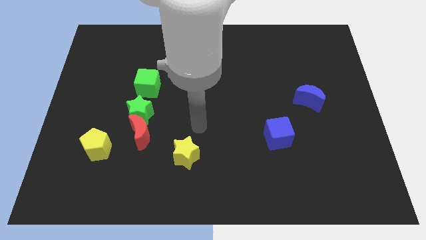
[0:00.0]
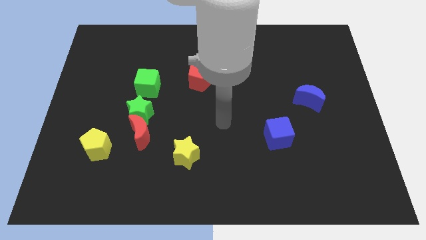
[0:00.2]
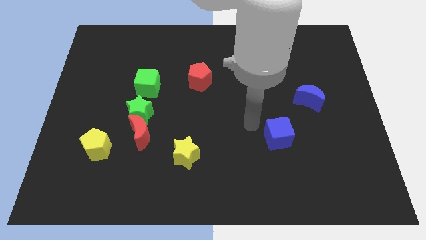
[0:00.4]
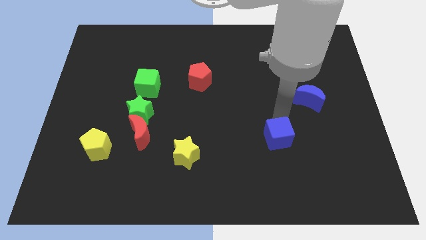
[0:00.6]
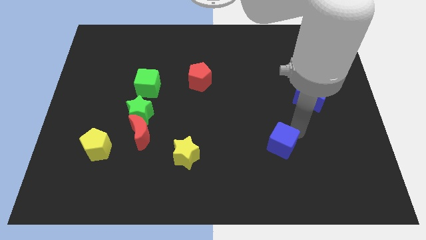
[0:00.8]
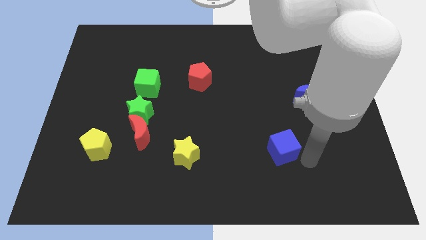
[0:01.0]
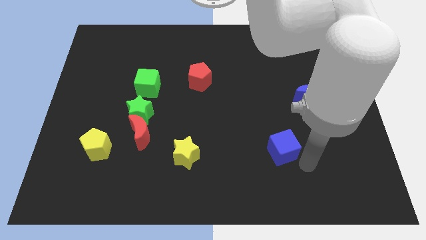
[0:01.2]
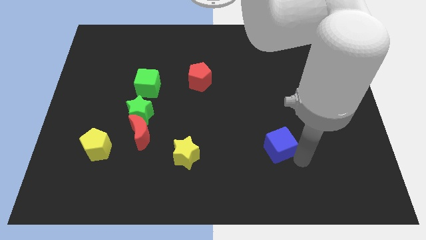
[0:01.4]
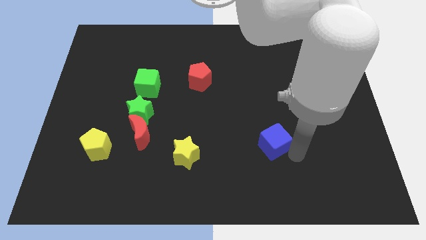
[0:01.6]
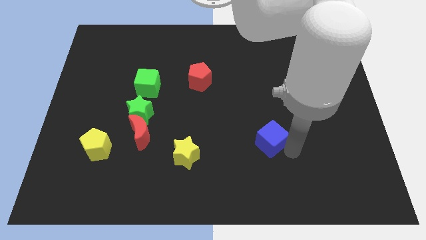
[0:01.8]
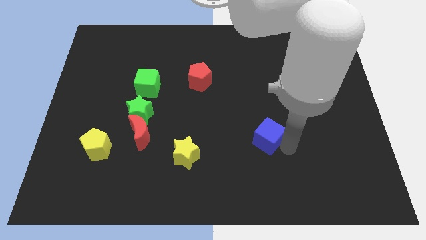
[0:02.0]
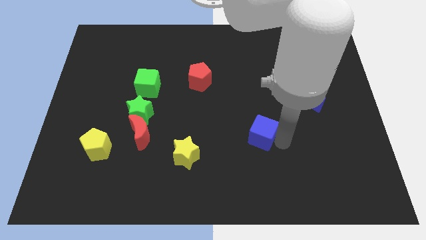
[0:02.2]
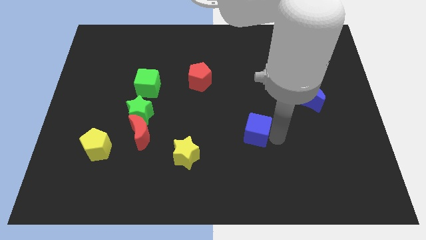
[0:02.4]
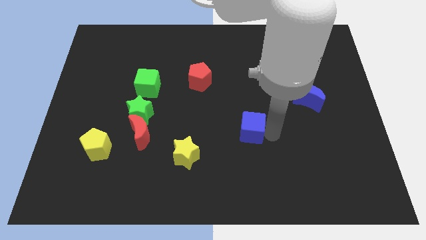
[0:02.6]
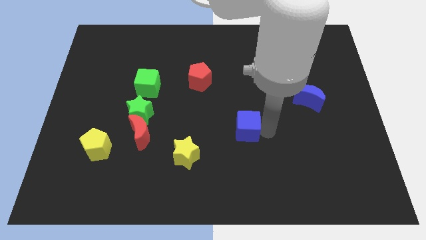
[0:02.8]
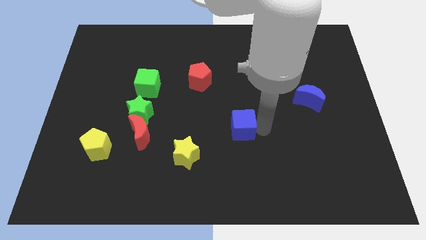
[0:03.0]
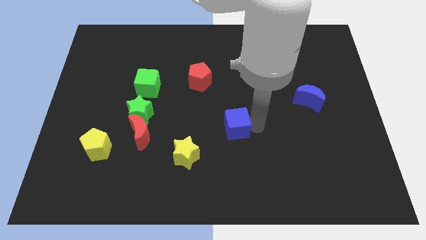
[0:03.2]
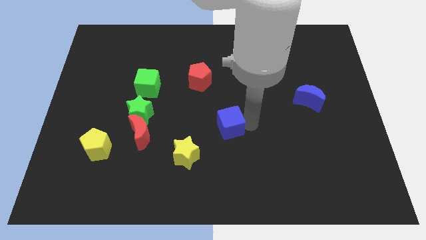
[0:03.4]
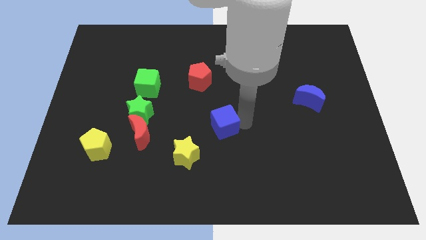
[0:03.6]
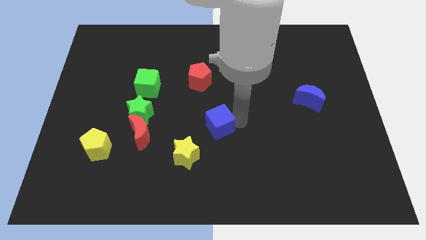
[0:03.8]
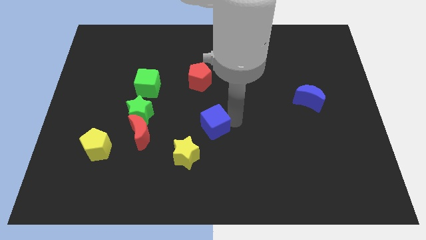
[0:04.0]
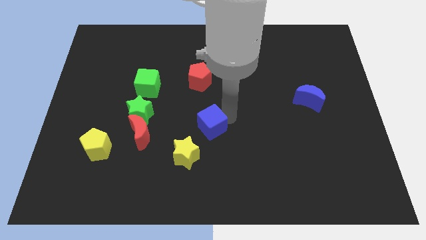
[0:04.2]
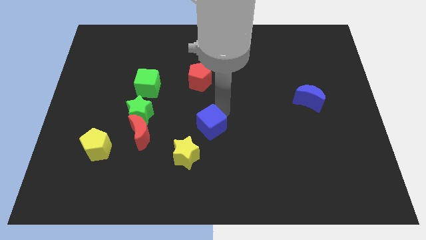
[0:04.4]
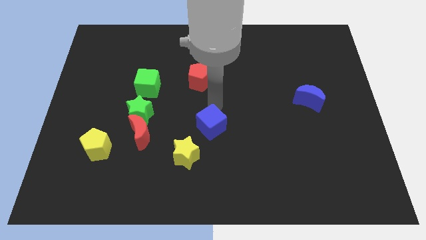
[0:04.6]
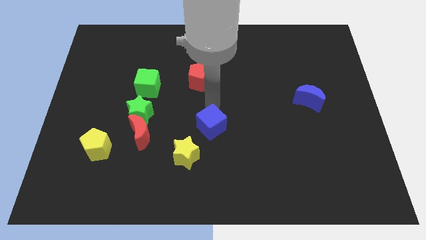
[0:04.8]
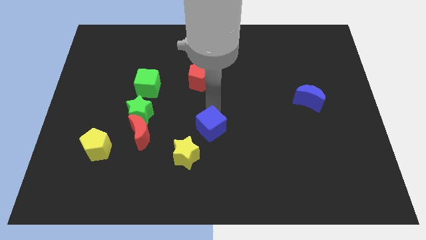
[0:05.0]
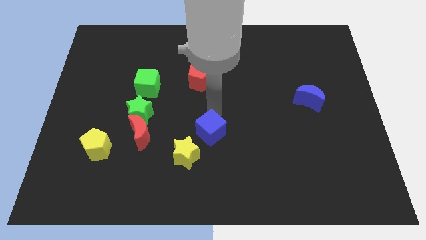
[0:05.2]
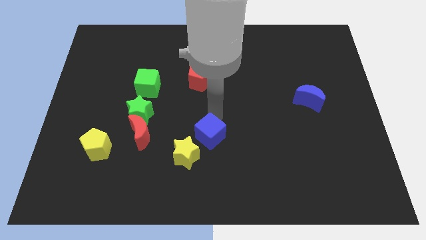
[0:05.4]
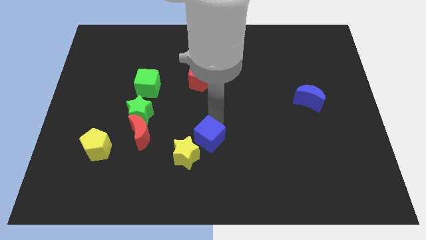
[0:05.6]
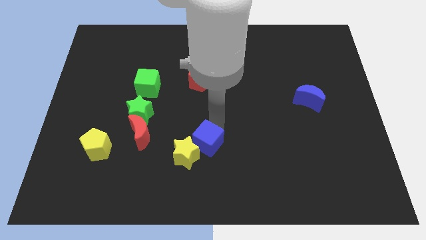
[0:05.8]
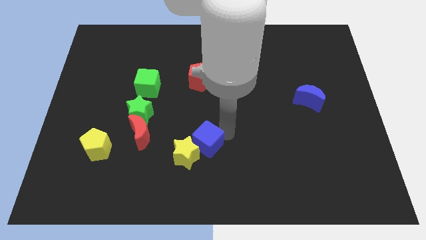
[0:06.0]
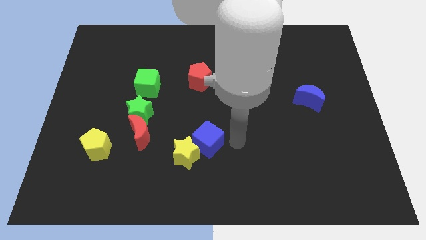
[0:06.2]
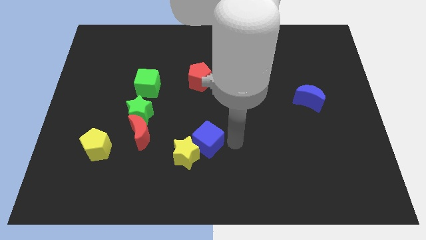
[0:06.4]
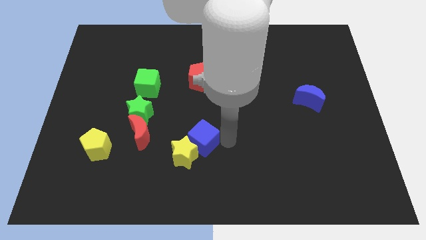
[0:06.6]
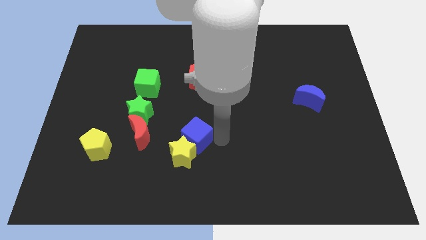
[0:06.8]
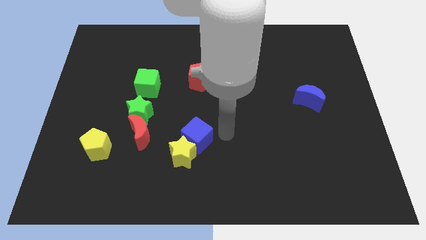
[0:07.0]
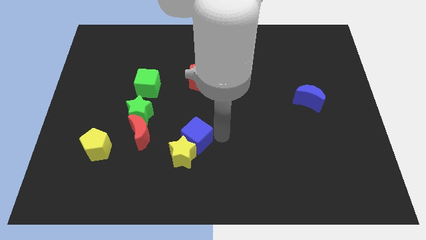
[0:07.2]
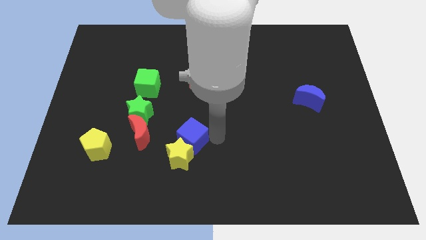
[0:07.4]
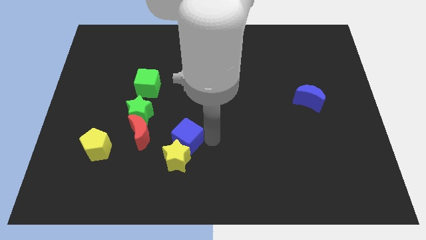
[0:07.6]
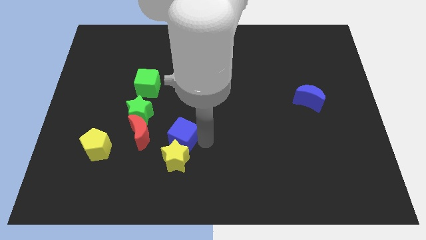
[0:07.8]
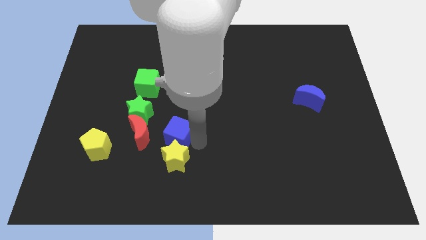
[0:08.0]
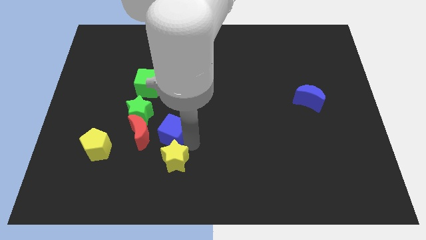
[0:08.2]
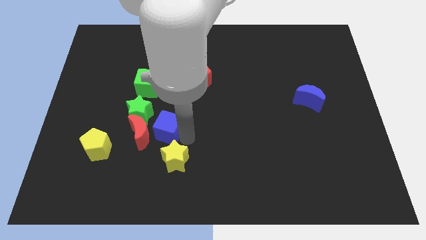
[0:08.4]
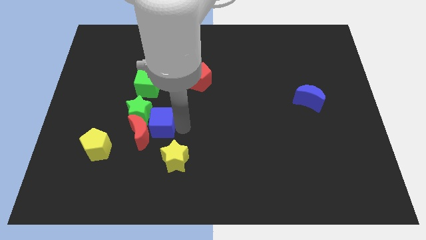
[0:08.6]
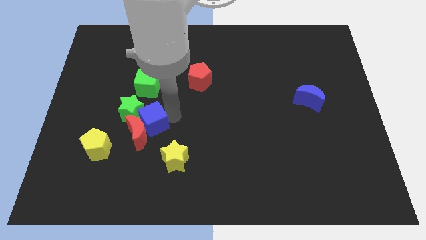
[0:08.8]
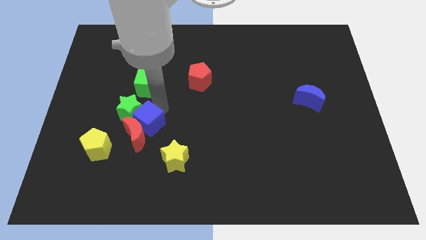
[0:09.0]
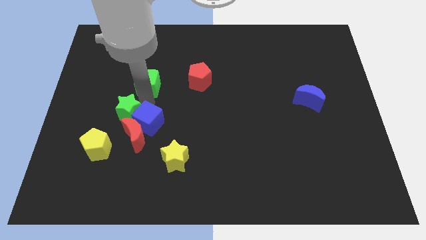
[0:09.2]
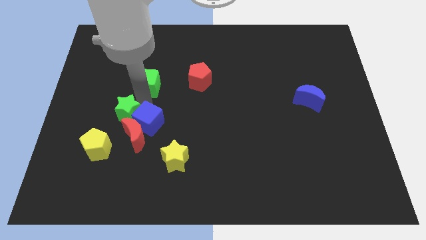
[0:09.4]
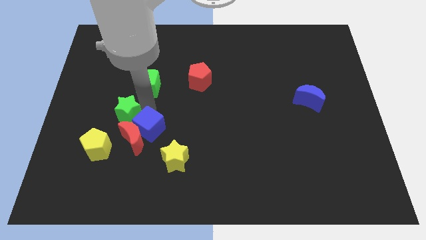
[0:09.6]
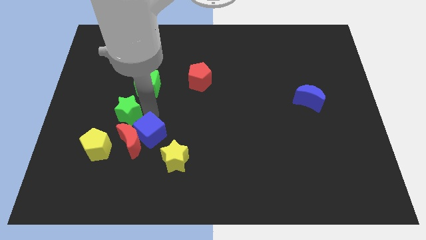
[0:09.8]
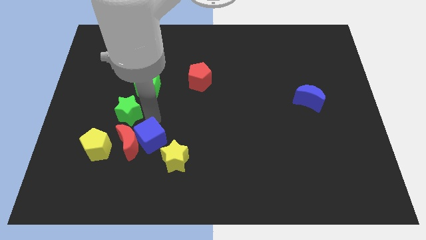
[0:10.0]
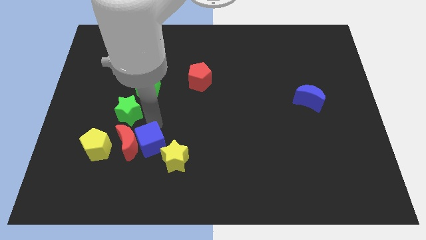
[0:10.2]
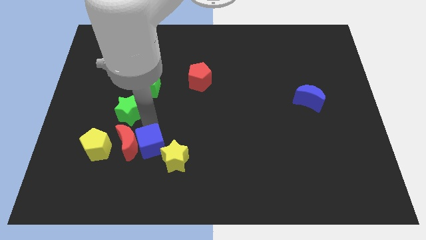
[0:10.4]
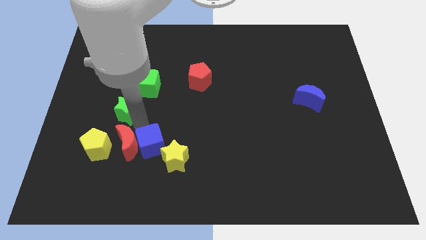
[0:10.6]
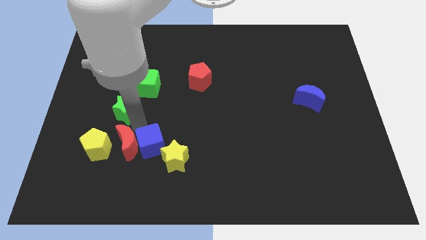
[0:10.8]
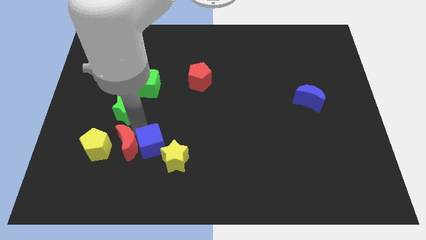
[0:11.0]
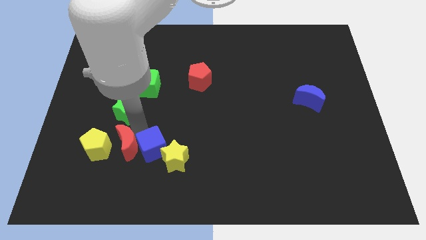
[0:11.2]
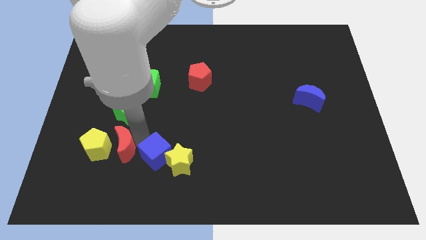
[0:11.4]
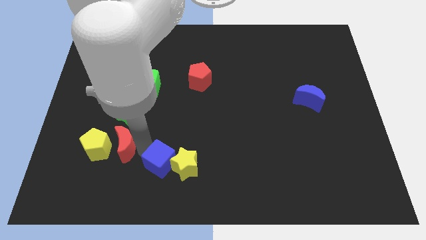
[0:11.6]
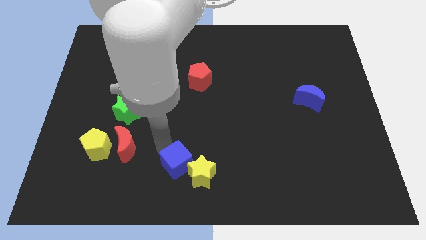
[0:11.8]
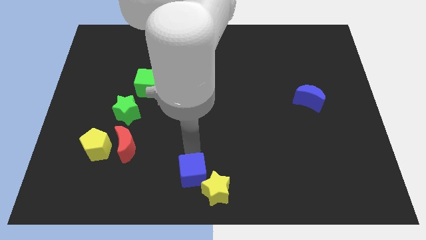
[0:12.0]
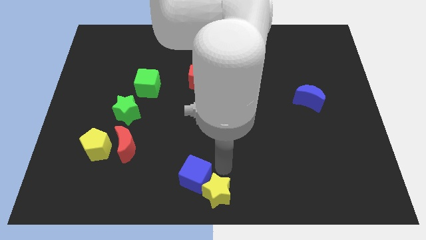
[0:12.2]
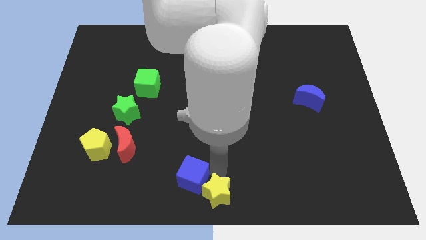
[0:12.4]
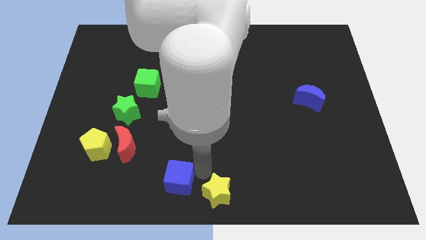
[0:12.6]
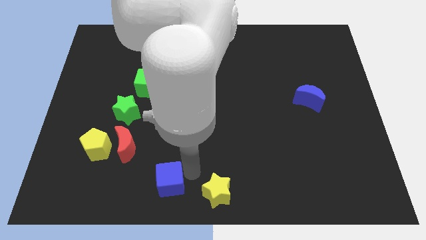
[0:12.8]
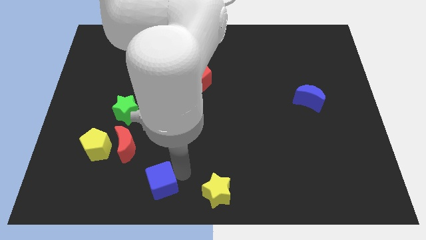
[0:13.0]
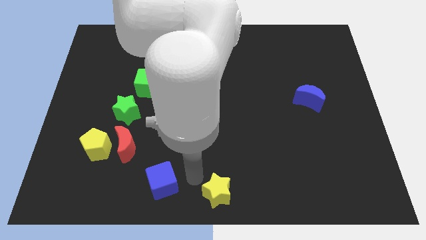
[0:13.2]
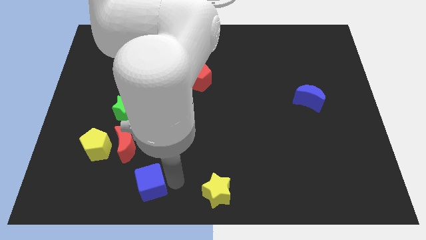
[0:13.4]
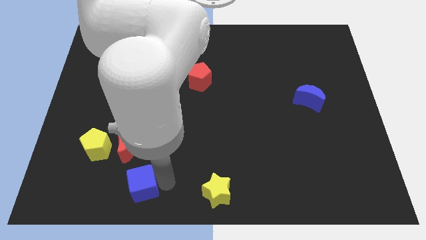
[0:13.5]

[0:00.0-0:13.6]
move the blue cube to the bottom side of the red moon

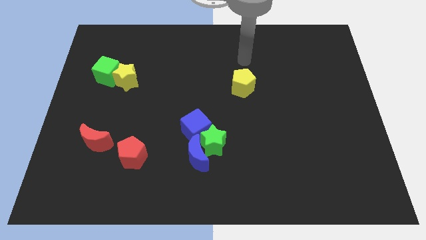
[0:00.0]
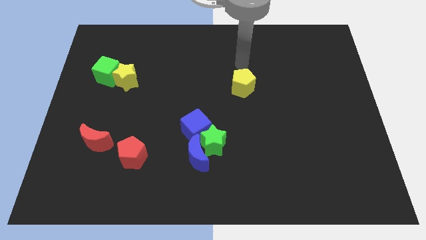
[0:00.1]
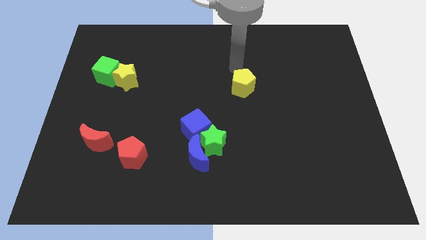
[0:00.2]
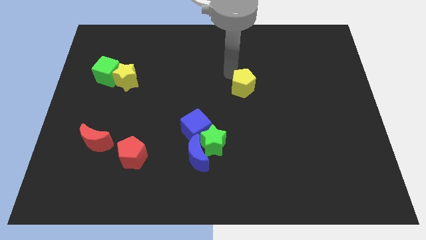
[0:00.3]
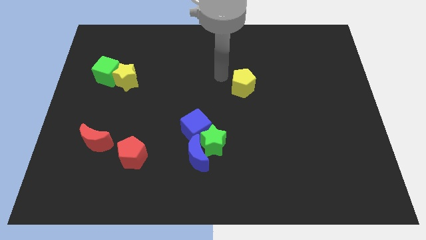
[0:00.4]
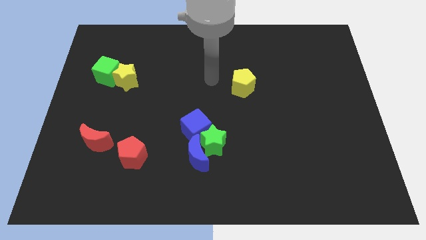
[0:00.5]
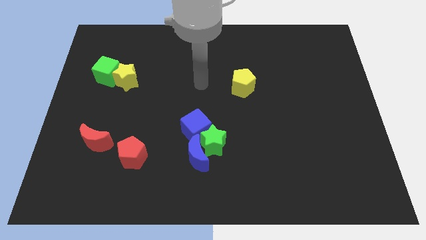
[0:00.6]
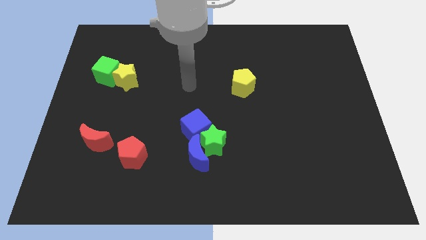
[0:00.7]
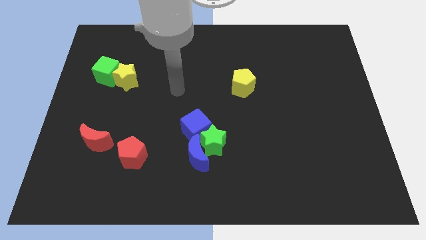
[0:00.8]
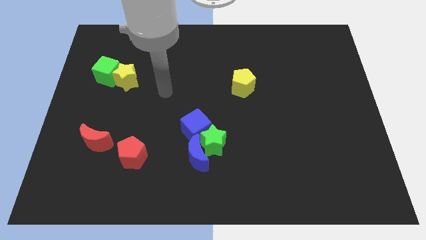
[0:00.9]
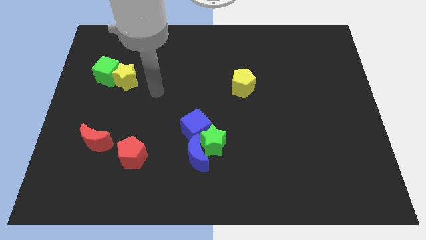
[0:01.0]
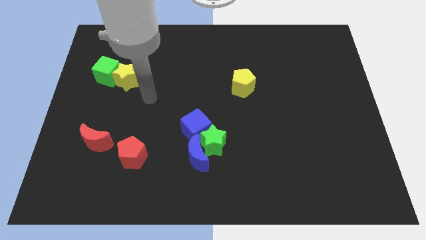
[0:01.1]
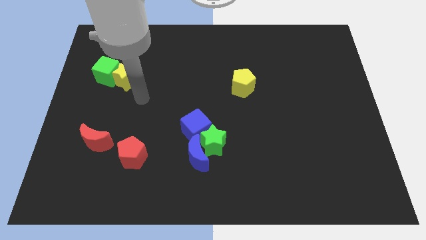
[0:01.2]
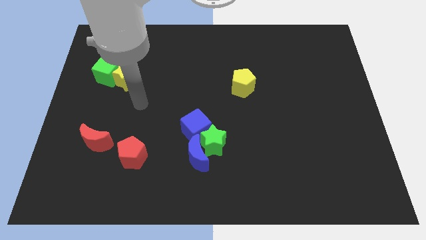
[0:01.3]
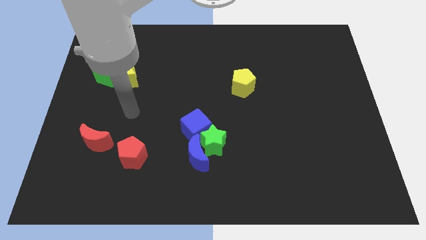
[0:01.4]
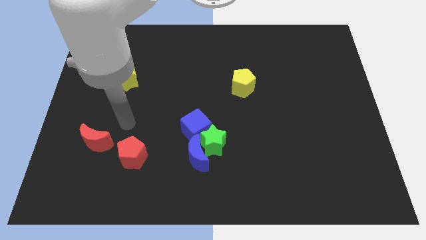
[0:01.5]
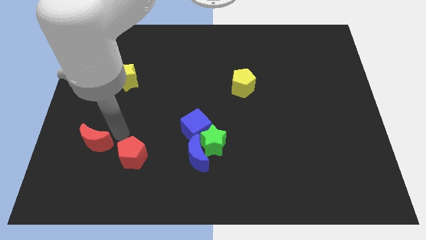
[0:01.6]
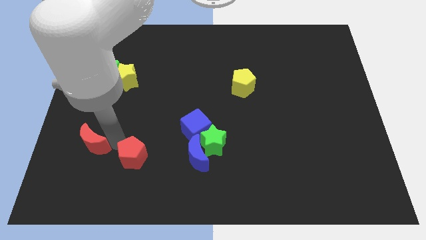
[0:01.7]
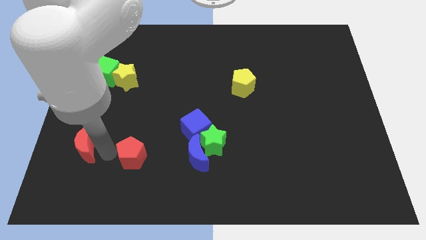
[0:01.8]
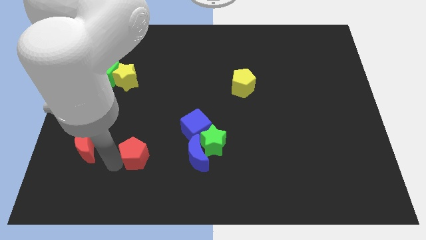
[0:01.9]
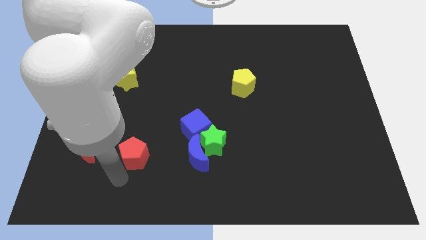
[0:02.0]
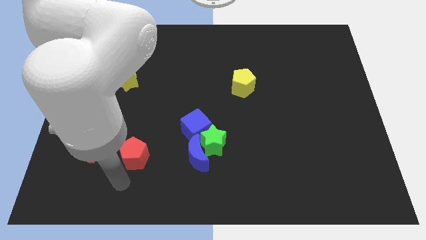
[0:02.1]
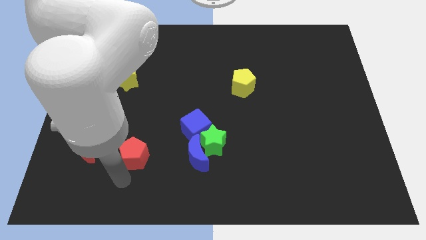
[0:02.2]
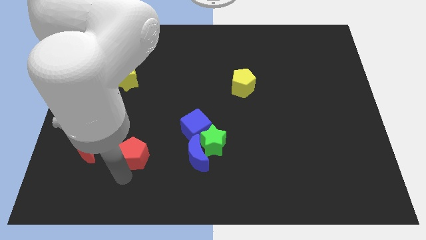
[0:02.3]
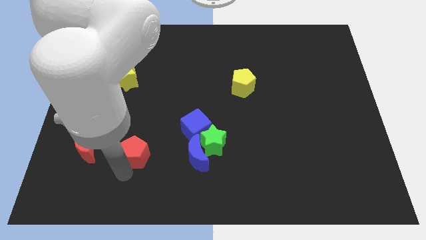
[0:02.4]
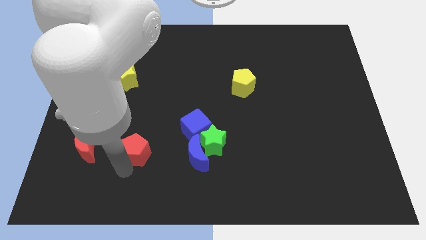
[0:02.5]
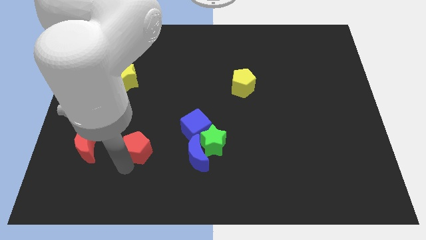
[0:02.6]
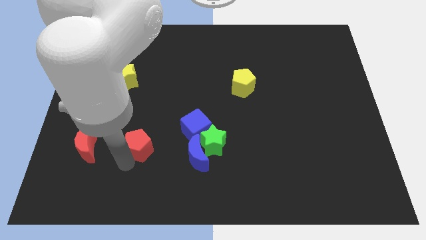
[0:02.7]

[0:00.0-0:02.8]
slide the red pentagon just left of the blue cube
